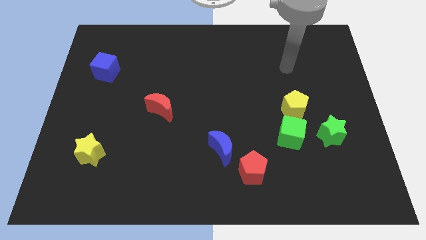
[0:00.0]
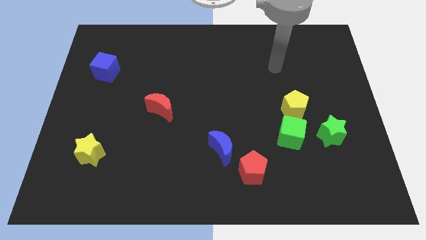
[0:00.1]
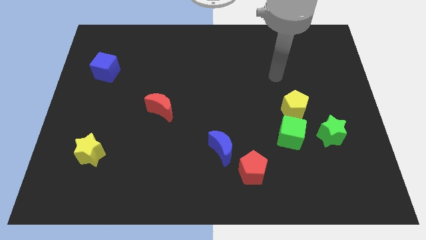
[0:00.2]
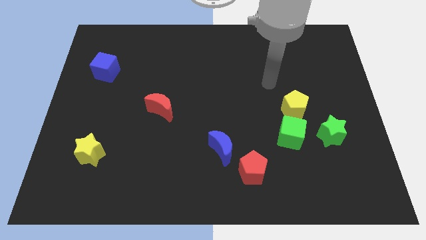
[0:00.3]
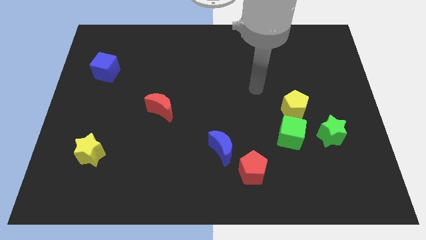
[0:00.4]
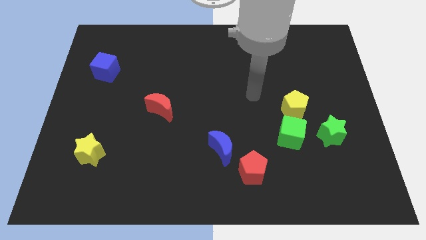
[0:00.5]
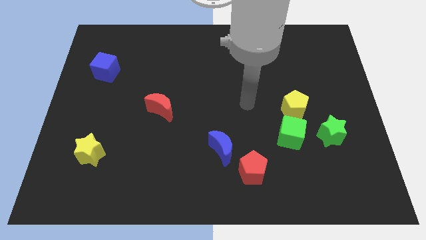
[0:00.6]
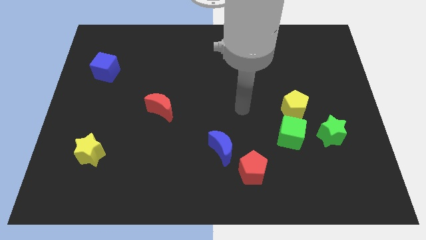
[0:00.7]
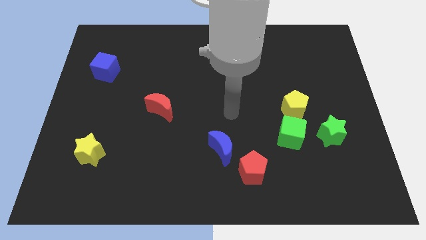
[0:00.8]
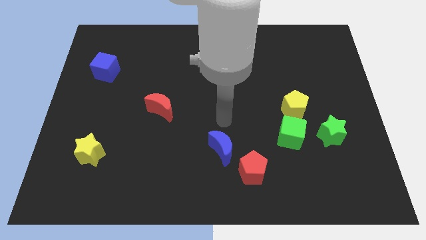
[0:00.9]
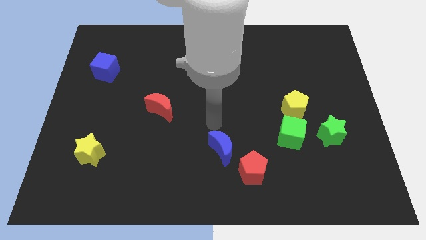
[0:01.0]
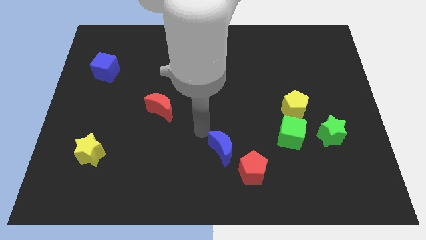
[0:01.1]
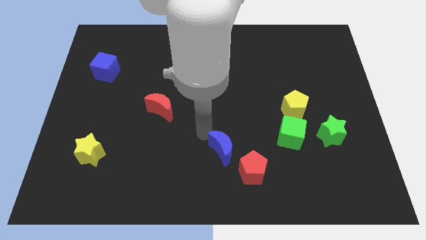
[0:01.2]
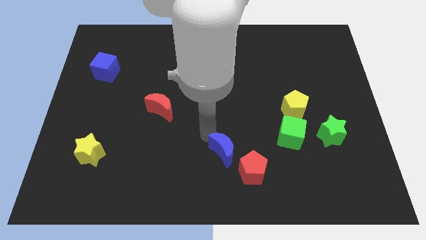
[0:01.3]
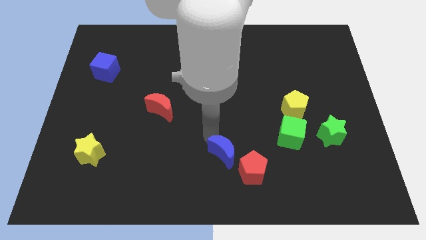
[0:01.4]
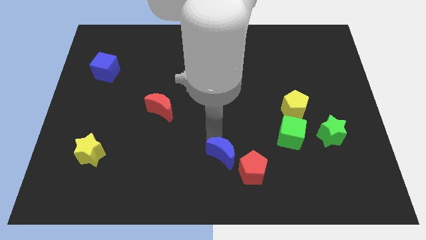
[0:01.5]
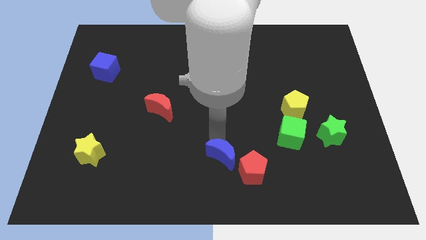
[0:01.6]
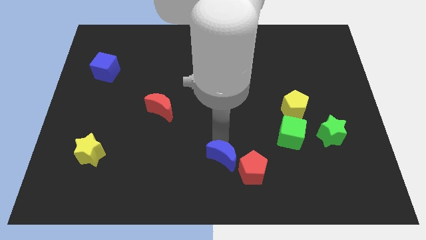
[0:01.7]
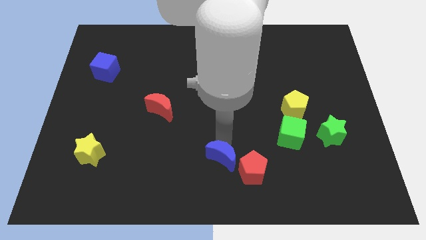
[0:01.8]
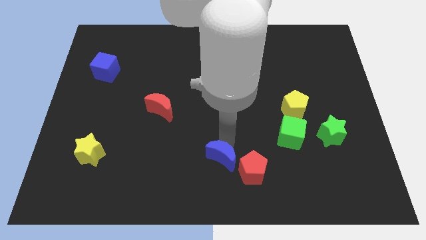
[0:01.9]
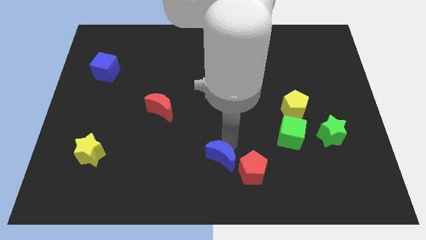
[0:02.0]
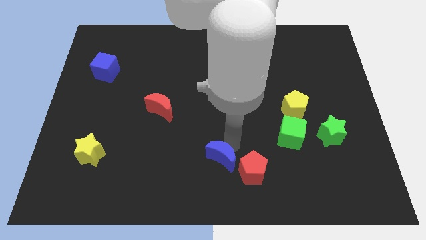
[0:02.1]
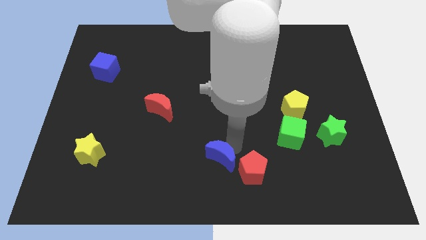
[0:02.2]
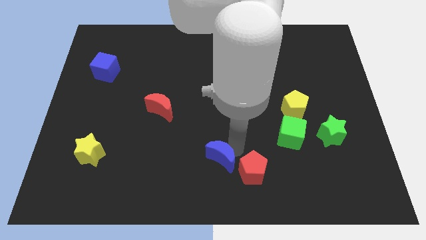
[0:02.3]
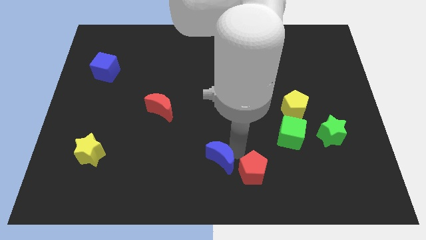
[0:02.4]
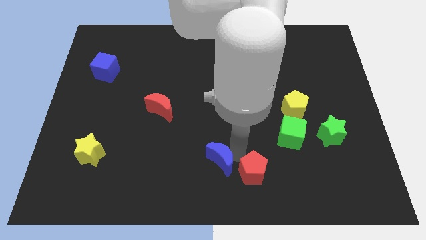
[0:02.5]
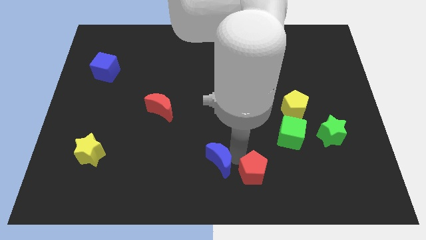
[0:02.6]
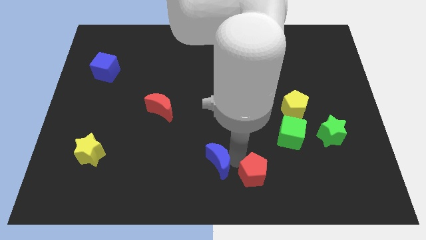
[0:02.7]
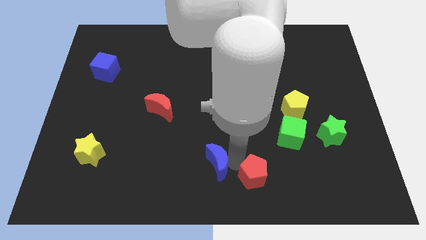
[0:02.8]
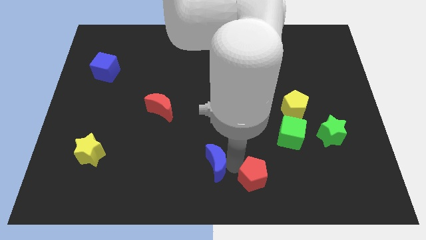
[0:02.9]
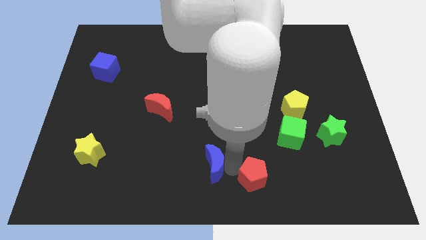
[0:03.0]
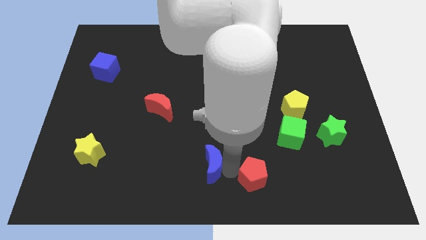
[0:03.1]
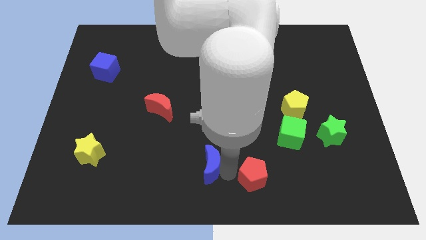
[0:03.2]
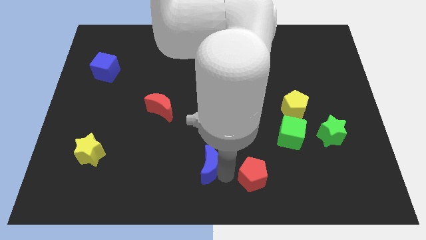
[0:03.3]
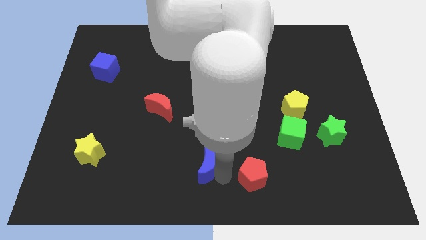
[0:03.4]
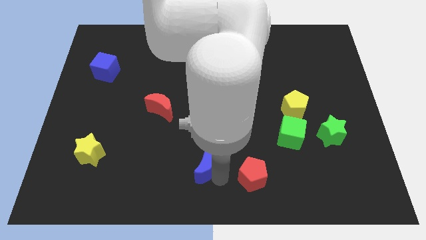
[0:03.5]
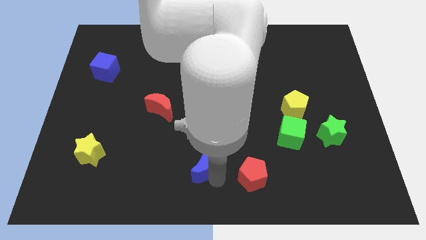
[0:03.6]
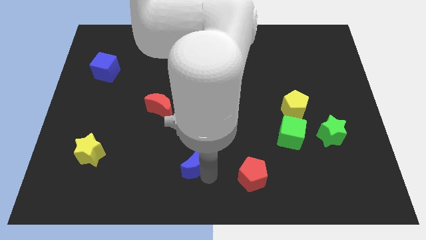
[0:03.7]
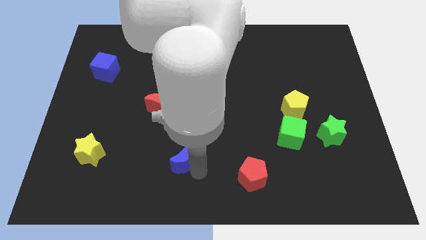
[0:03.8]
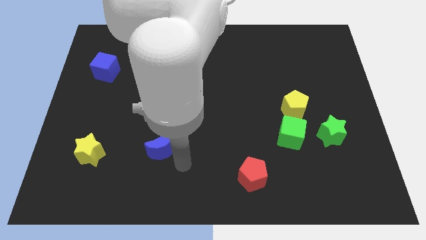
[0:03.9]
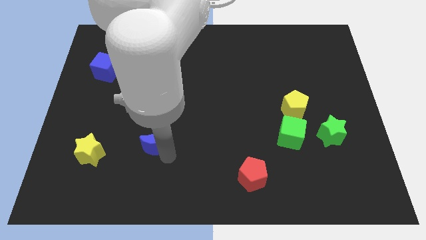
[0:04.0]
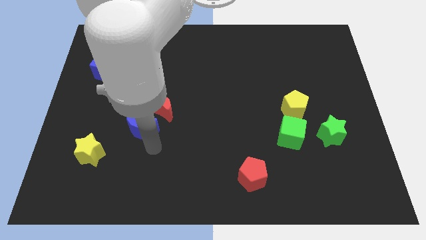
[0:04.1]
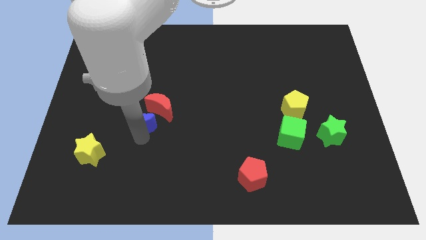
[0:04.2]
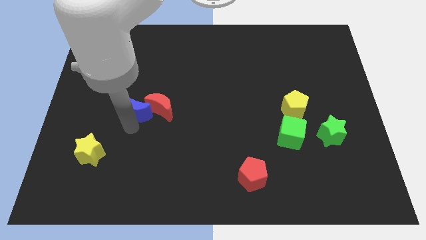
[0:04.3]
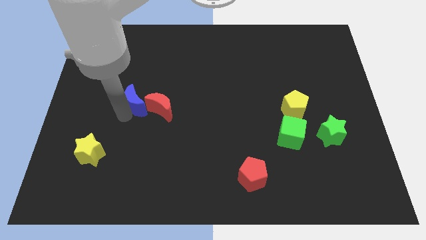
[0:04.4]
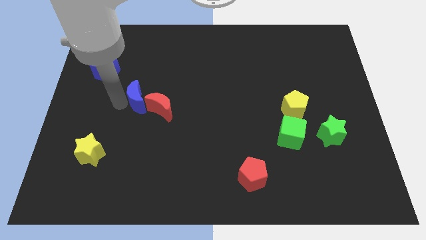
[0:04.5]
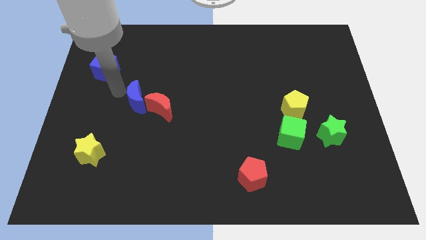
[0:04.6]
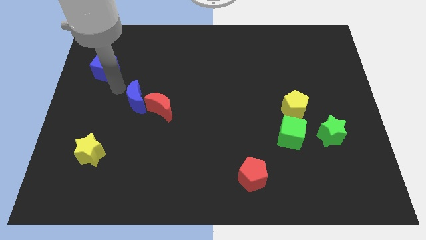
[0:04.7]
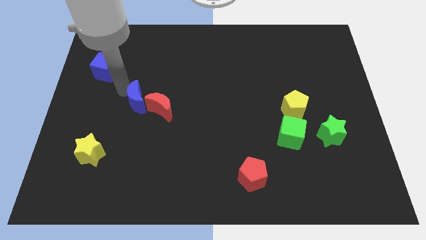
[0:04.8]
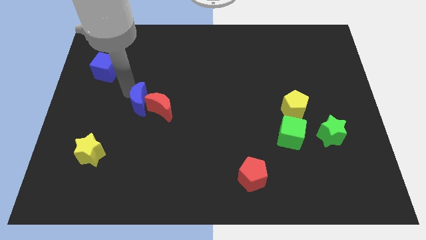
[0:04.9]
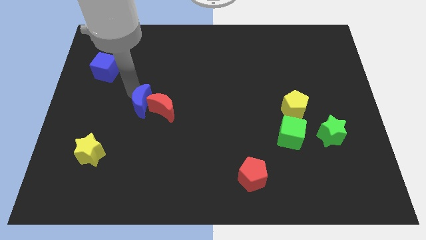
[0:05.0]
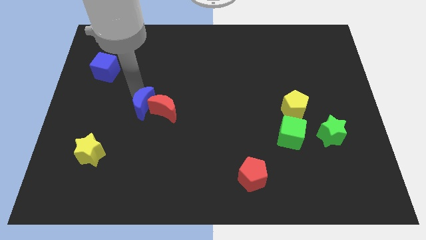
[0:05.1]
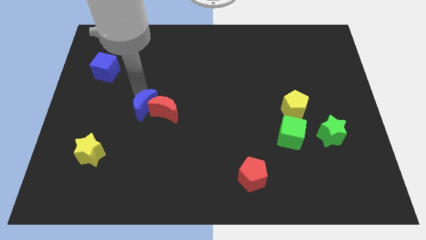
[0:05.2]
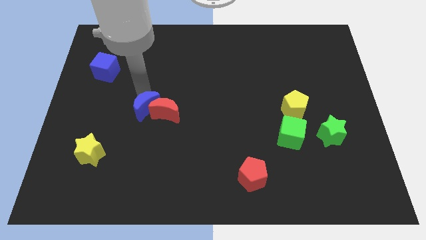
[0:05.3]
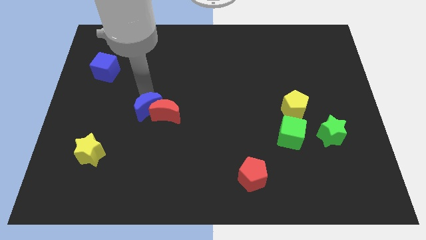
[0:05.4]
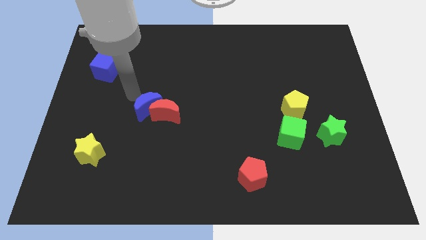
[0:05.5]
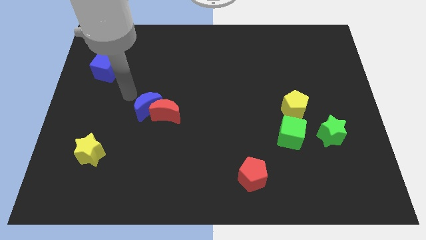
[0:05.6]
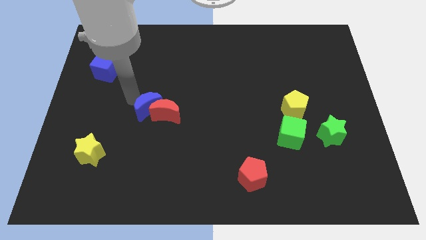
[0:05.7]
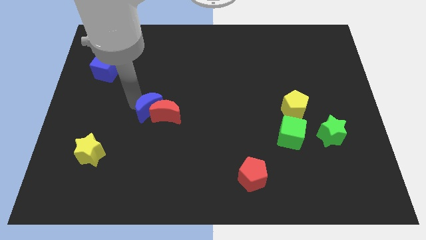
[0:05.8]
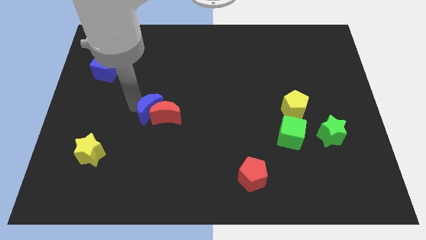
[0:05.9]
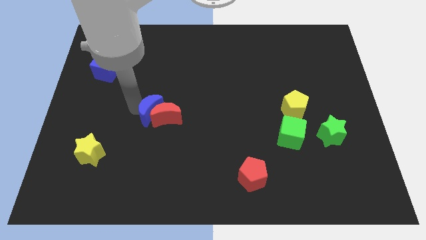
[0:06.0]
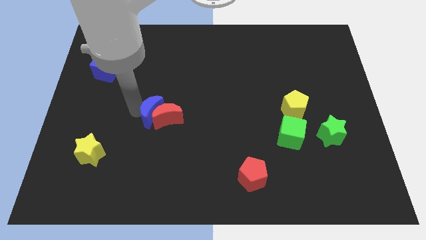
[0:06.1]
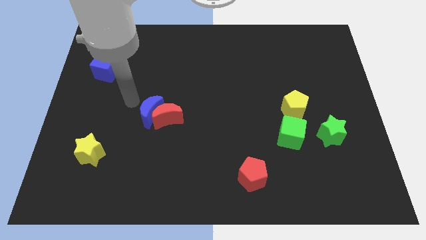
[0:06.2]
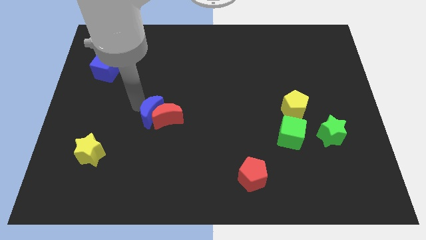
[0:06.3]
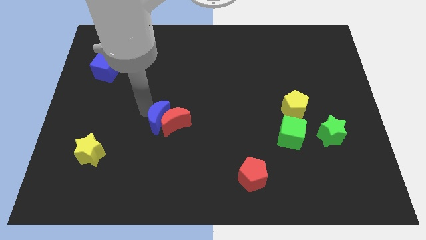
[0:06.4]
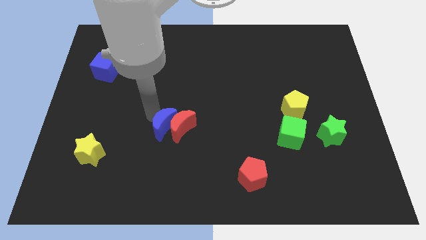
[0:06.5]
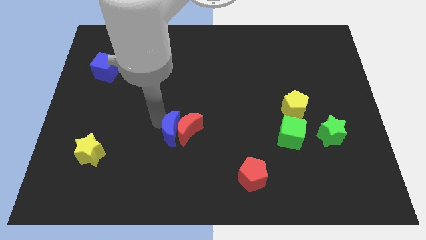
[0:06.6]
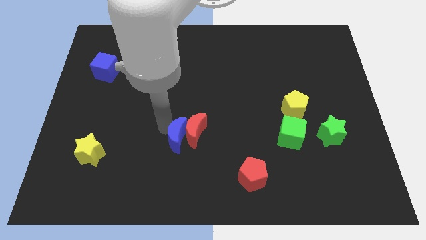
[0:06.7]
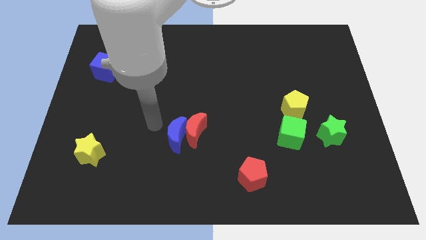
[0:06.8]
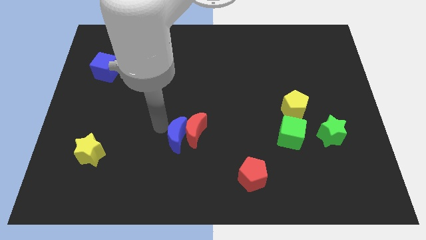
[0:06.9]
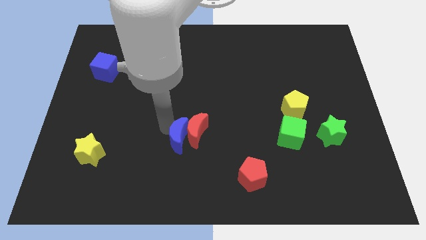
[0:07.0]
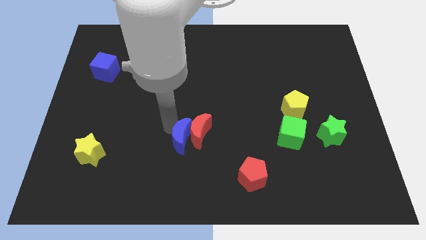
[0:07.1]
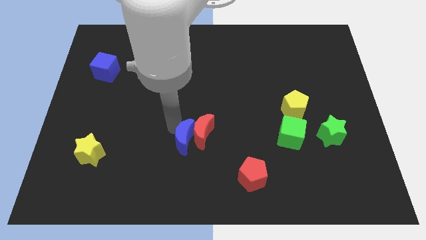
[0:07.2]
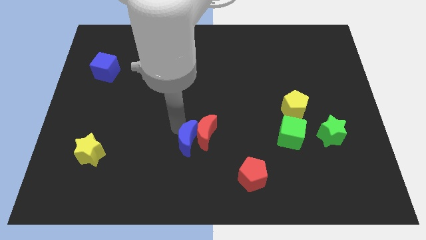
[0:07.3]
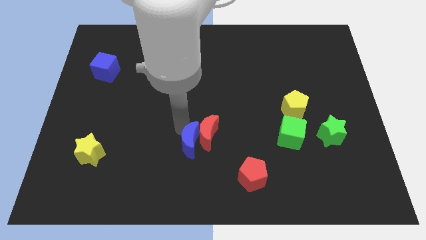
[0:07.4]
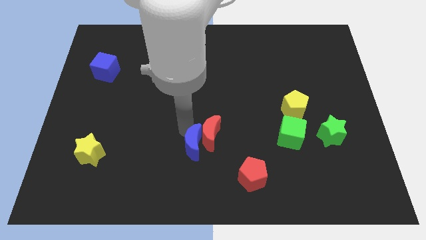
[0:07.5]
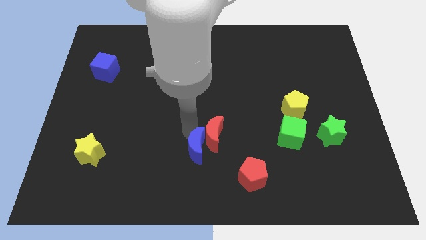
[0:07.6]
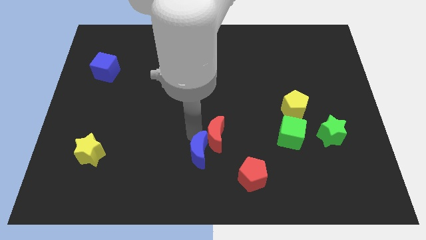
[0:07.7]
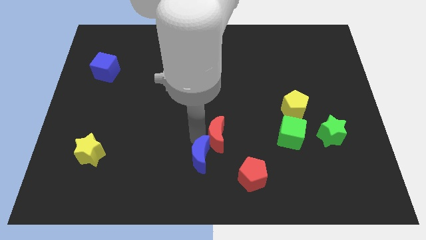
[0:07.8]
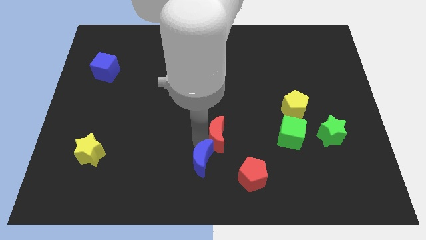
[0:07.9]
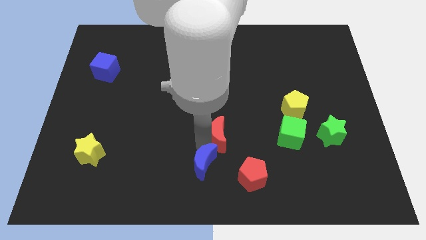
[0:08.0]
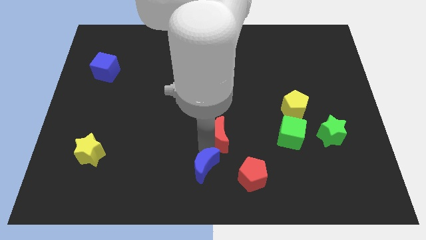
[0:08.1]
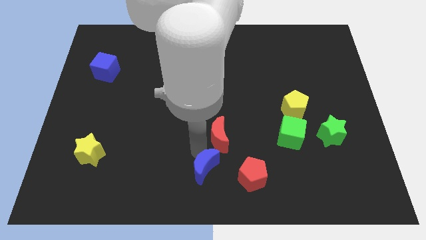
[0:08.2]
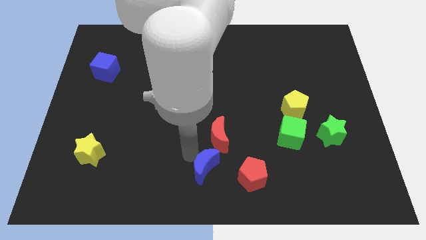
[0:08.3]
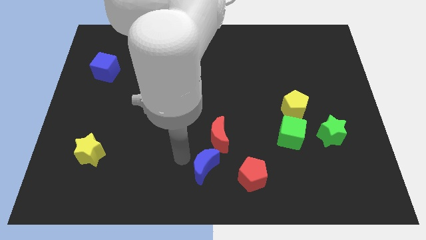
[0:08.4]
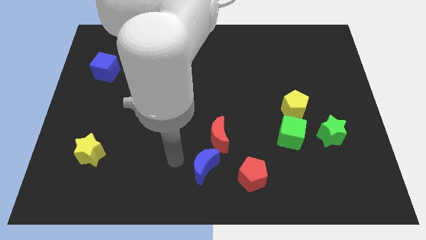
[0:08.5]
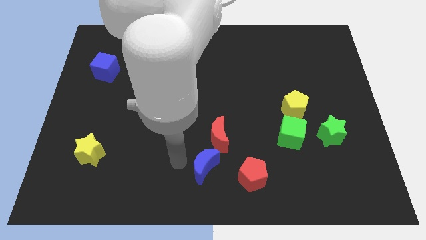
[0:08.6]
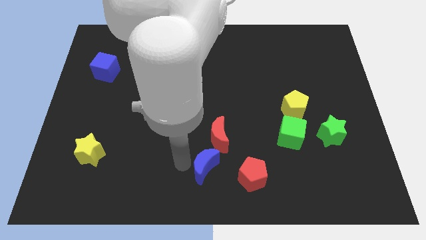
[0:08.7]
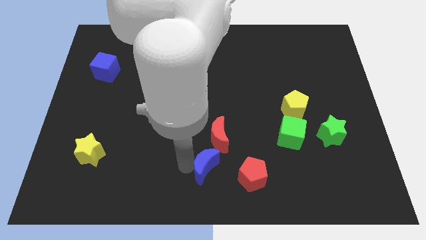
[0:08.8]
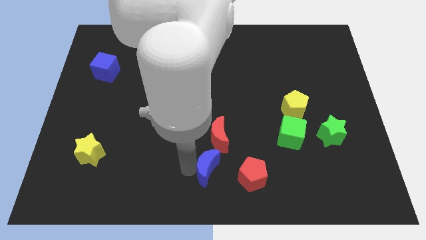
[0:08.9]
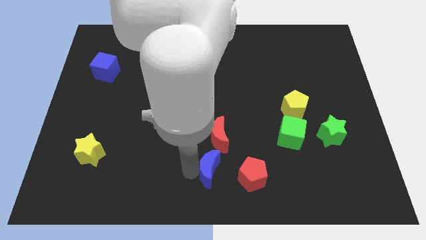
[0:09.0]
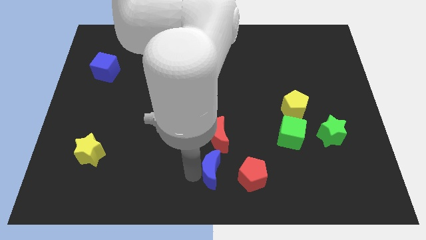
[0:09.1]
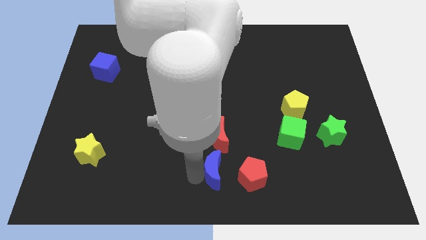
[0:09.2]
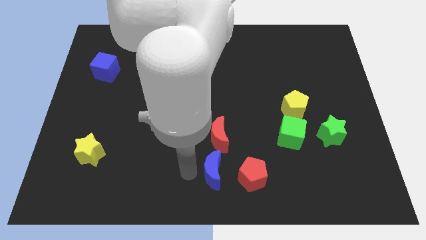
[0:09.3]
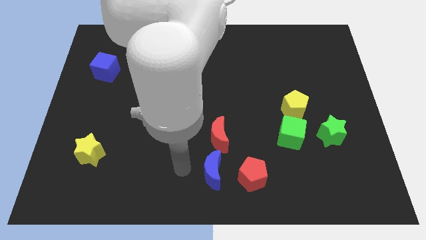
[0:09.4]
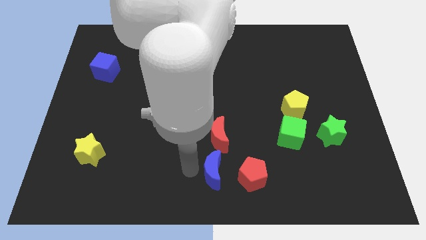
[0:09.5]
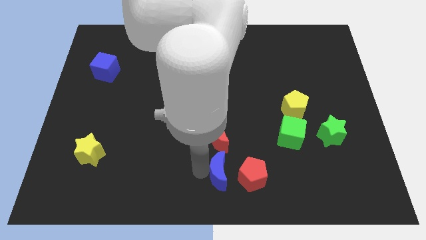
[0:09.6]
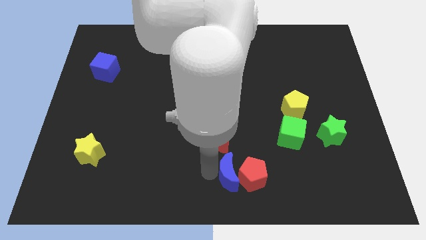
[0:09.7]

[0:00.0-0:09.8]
slide the blue moon towards the red pentagon
